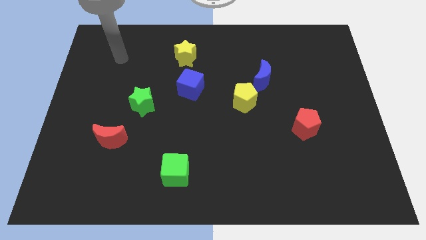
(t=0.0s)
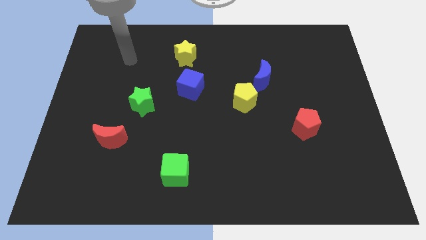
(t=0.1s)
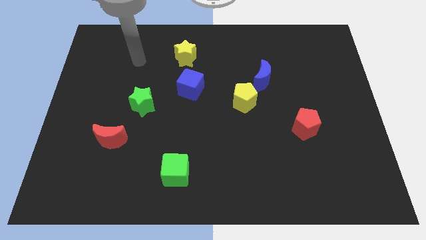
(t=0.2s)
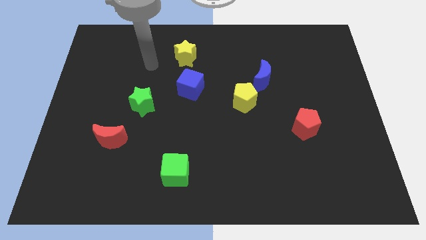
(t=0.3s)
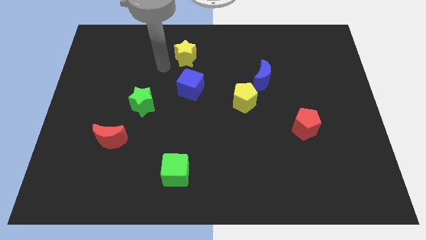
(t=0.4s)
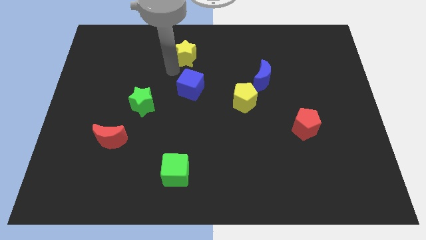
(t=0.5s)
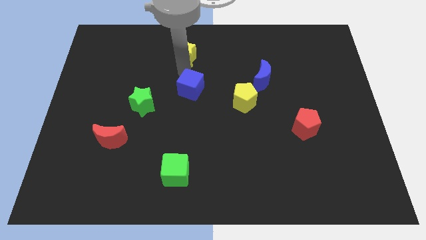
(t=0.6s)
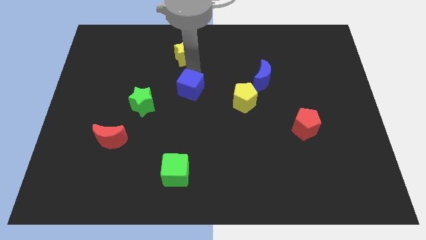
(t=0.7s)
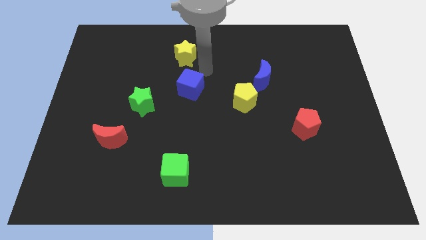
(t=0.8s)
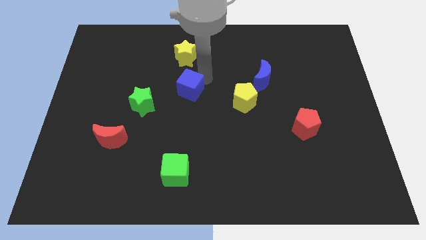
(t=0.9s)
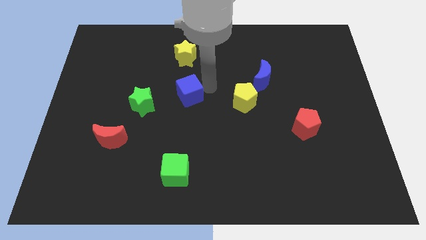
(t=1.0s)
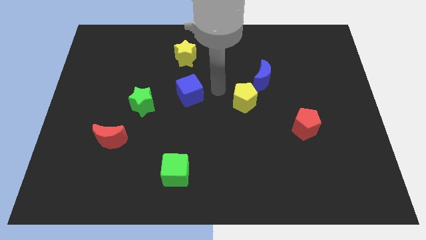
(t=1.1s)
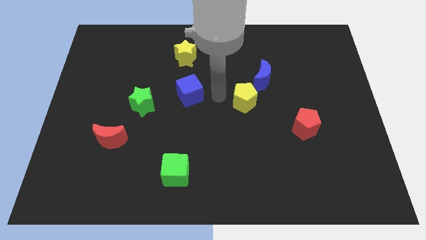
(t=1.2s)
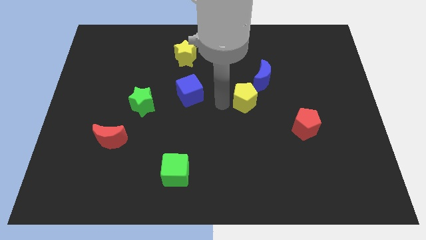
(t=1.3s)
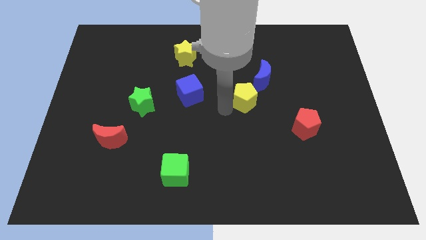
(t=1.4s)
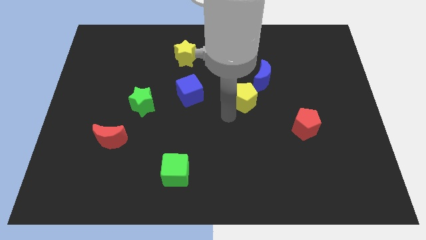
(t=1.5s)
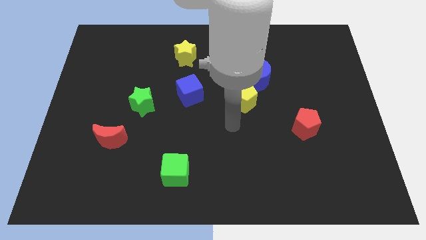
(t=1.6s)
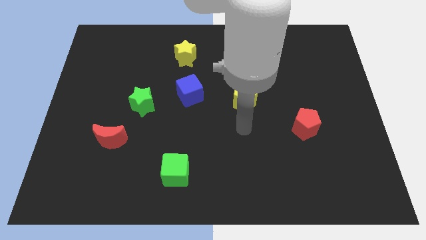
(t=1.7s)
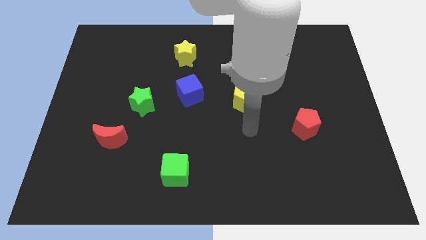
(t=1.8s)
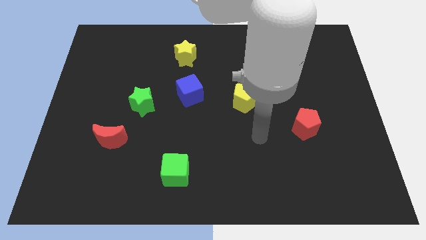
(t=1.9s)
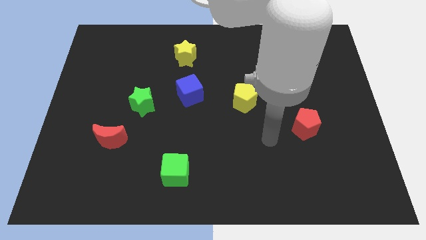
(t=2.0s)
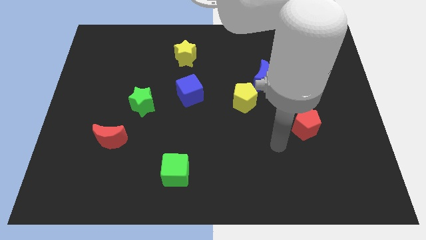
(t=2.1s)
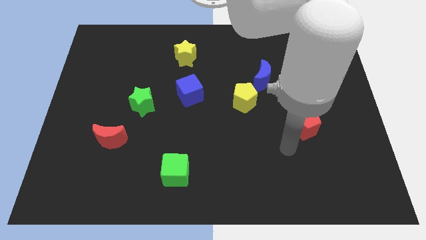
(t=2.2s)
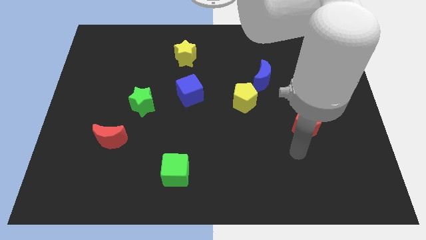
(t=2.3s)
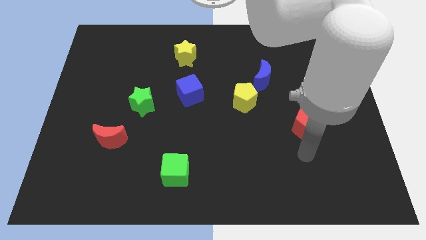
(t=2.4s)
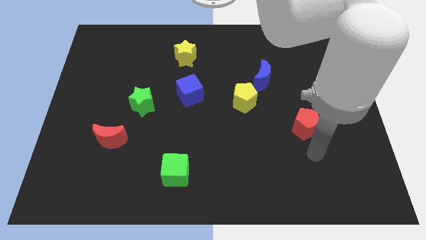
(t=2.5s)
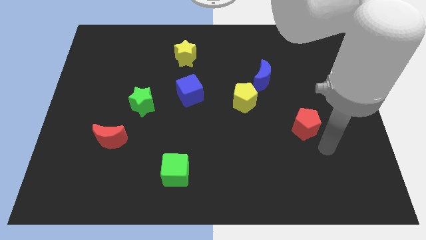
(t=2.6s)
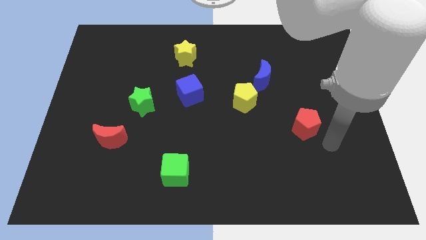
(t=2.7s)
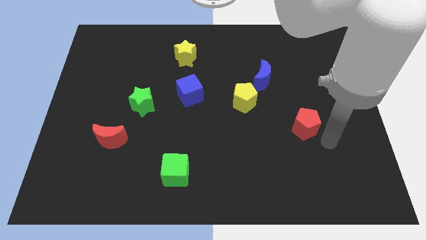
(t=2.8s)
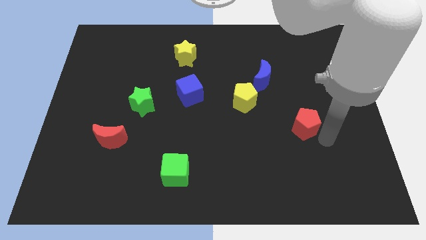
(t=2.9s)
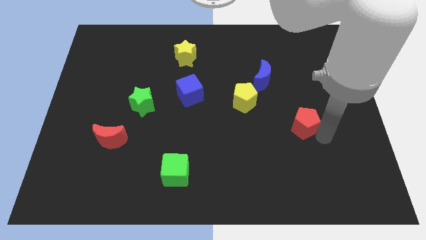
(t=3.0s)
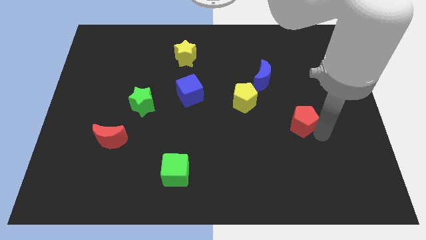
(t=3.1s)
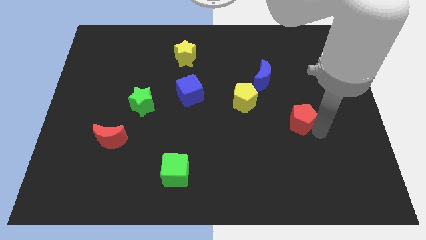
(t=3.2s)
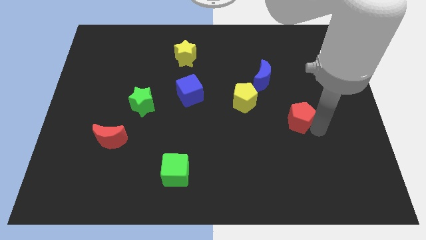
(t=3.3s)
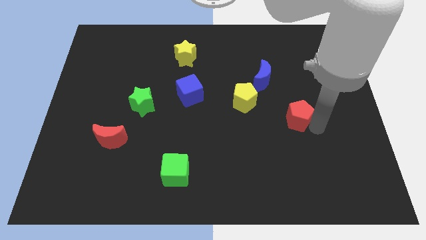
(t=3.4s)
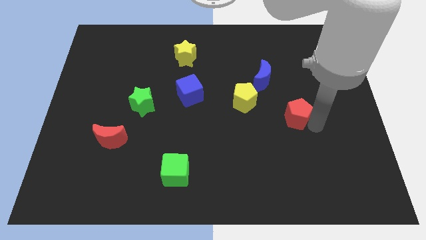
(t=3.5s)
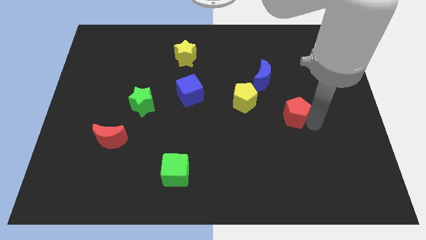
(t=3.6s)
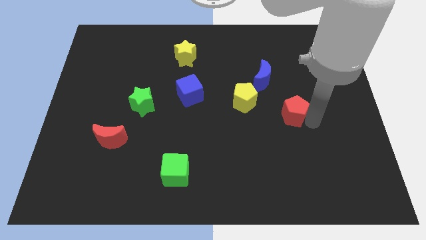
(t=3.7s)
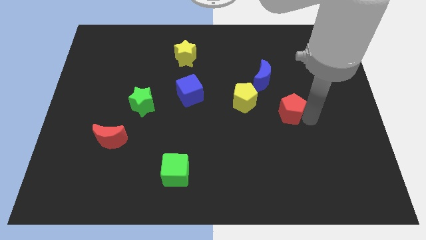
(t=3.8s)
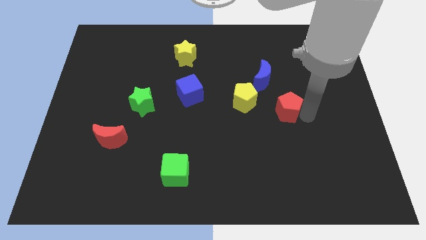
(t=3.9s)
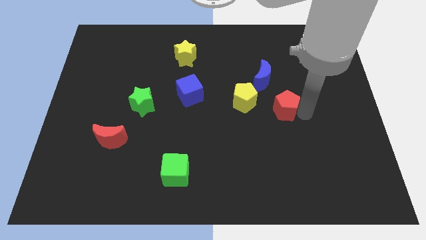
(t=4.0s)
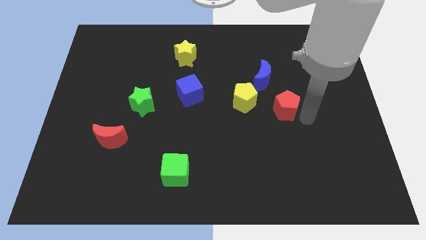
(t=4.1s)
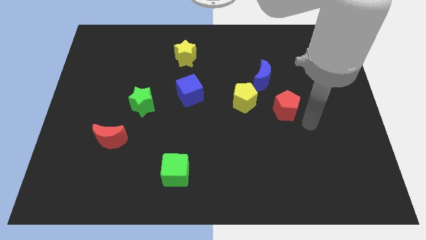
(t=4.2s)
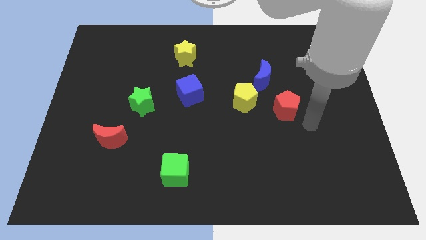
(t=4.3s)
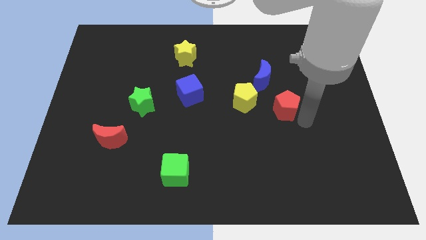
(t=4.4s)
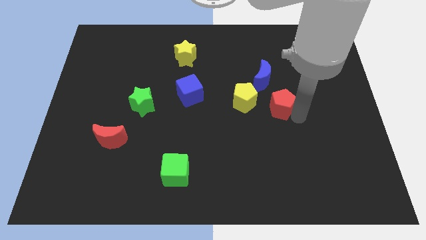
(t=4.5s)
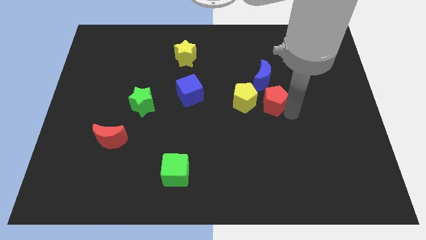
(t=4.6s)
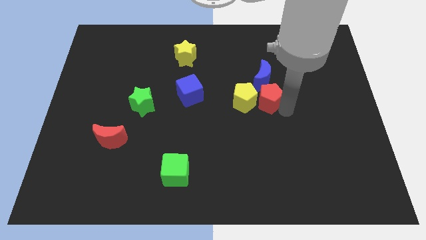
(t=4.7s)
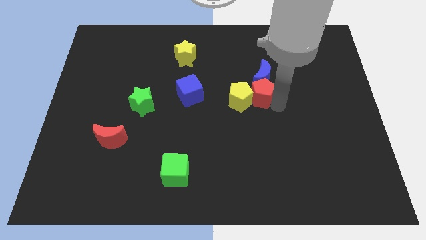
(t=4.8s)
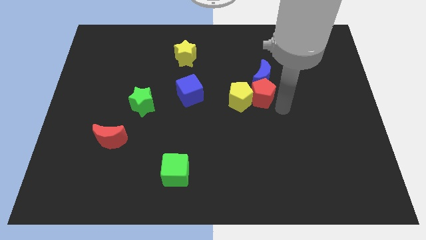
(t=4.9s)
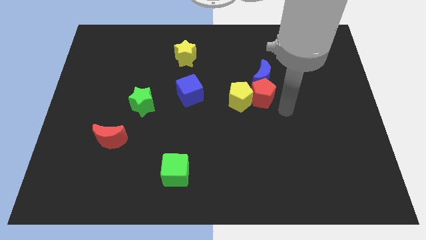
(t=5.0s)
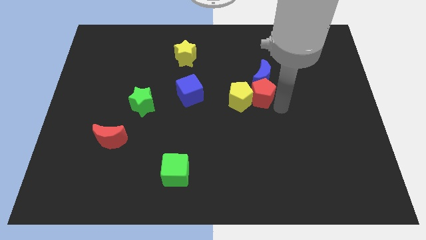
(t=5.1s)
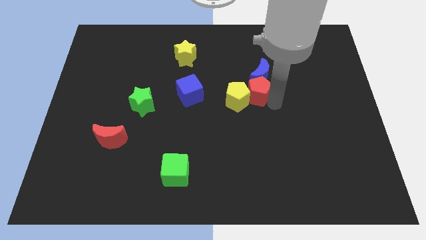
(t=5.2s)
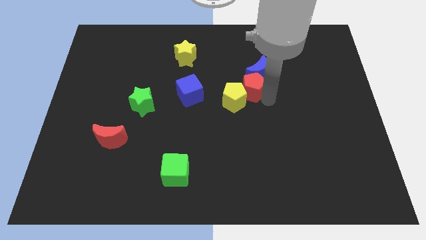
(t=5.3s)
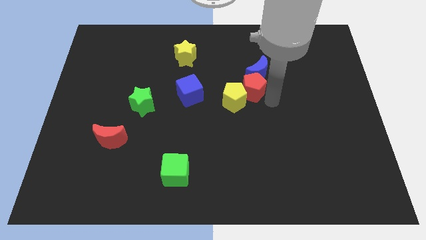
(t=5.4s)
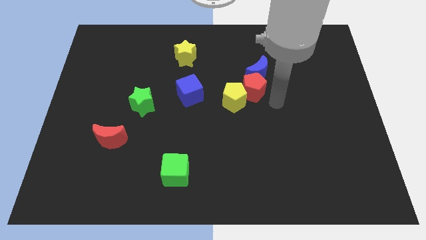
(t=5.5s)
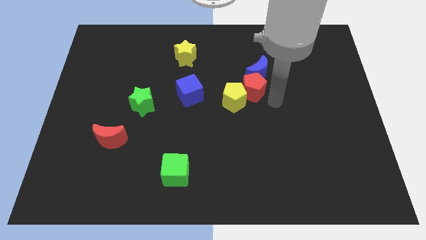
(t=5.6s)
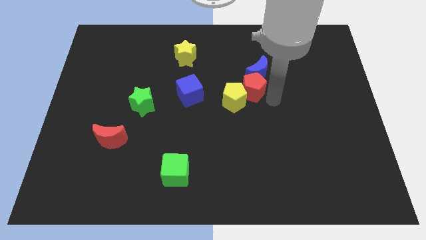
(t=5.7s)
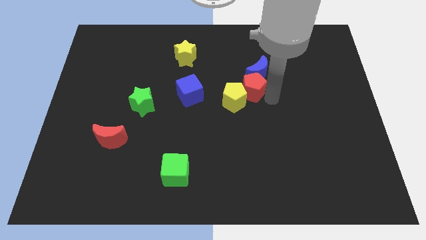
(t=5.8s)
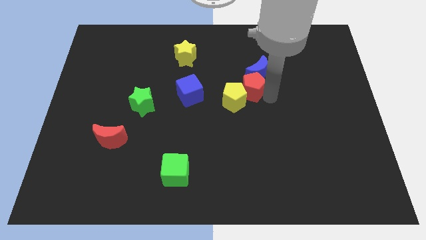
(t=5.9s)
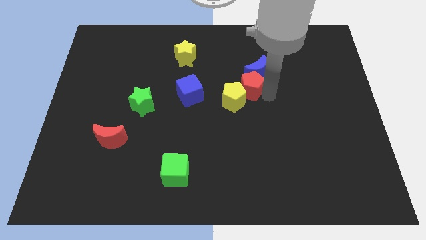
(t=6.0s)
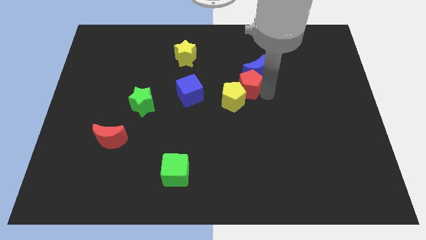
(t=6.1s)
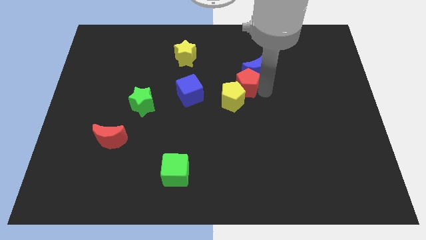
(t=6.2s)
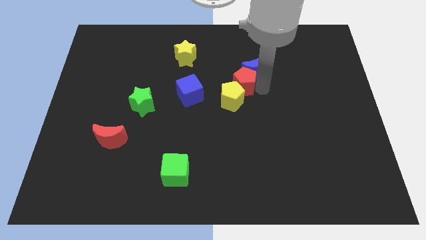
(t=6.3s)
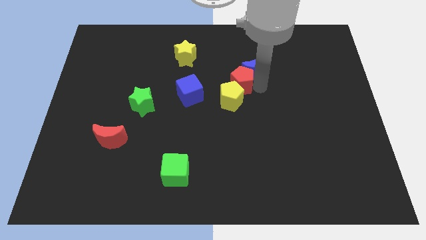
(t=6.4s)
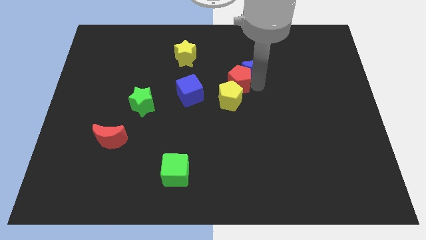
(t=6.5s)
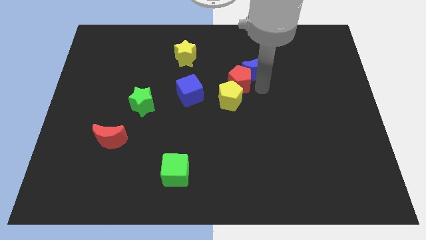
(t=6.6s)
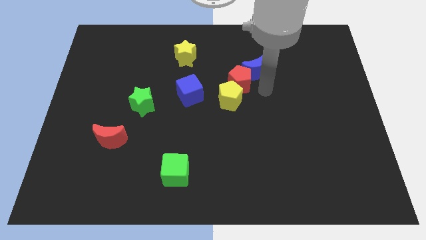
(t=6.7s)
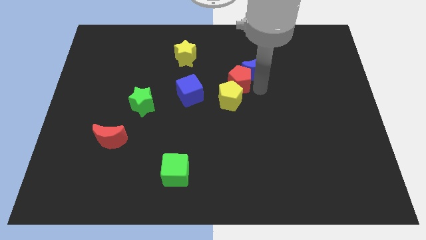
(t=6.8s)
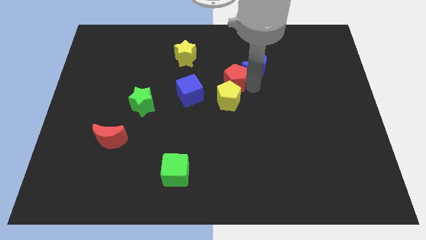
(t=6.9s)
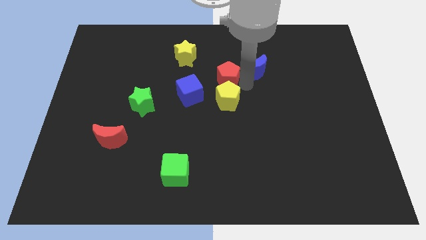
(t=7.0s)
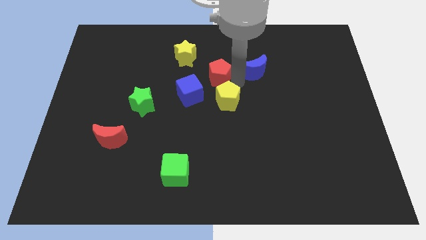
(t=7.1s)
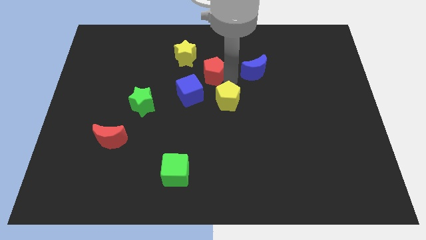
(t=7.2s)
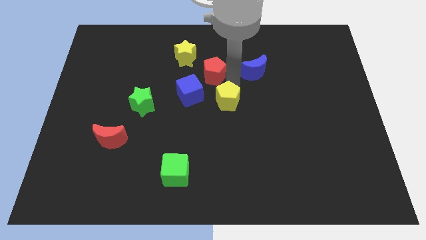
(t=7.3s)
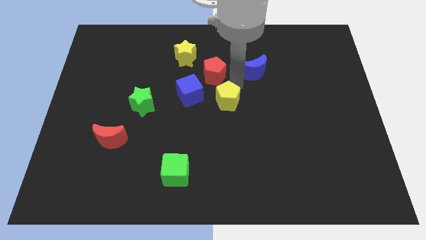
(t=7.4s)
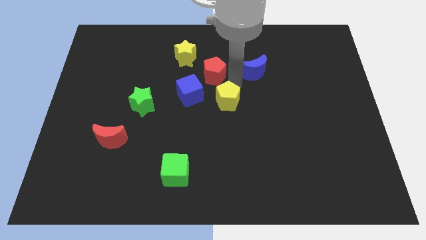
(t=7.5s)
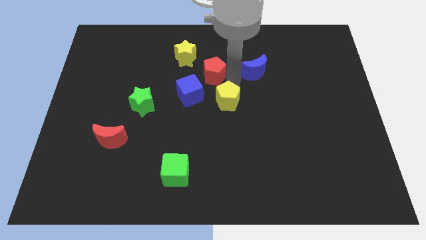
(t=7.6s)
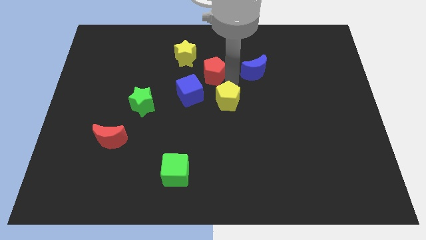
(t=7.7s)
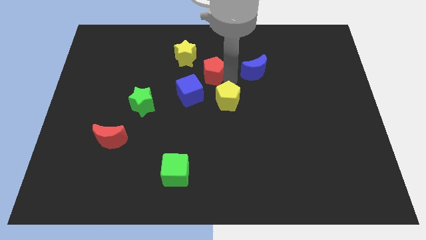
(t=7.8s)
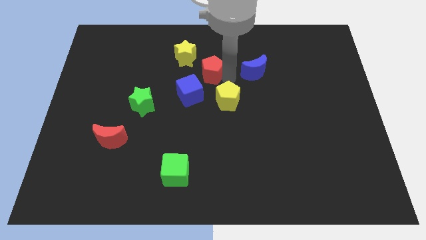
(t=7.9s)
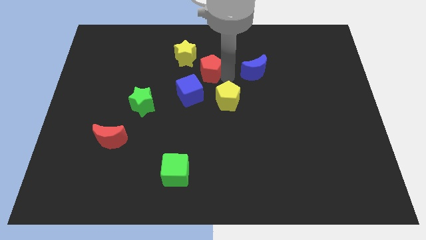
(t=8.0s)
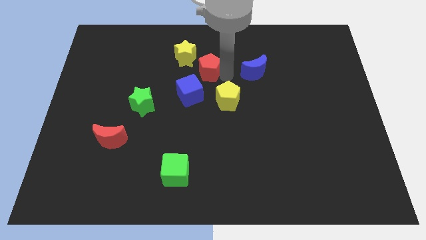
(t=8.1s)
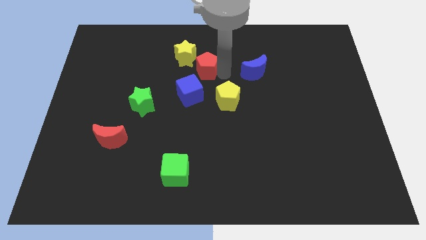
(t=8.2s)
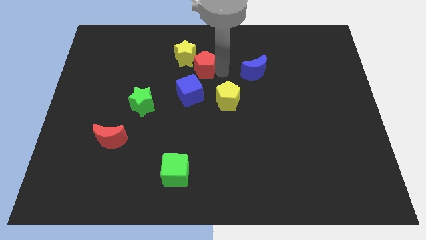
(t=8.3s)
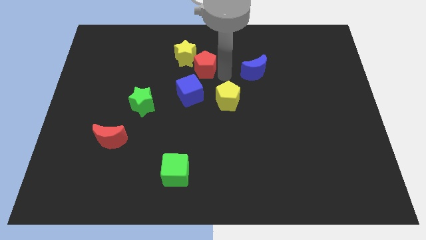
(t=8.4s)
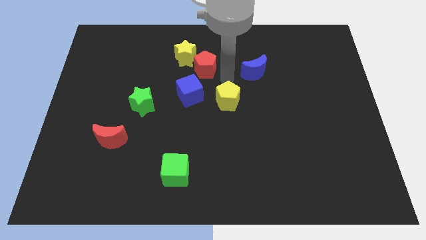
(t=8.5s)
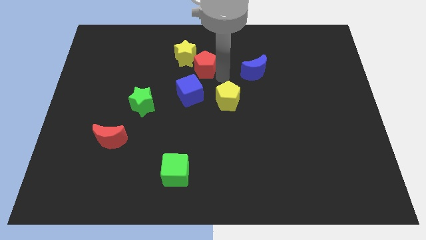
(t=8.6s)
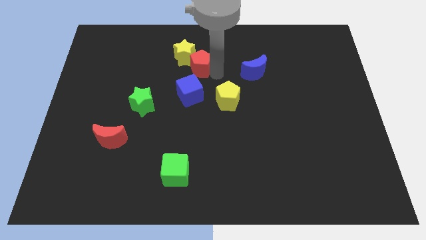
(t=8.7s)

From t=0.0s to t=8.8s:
slide the red pentagon to the yellow star
